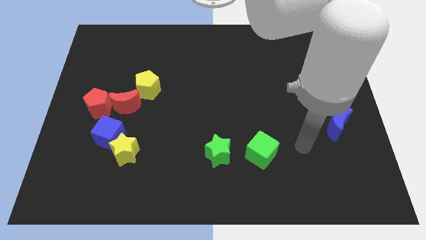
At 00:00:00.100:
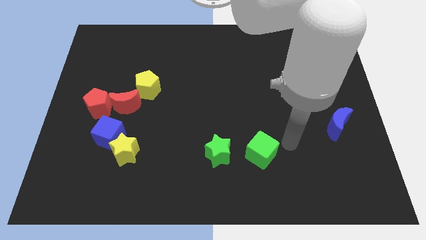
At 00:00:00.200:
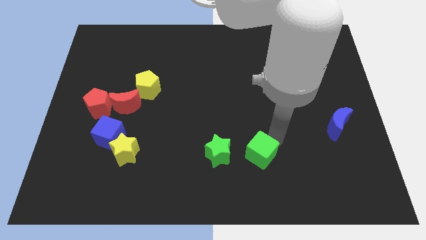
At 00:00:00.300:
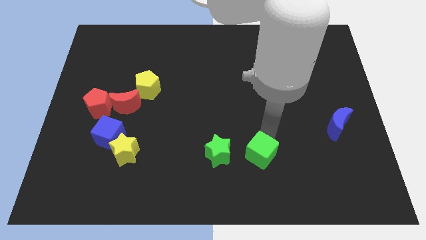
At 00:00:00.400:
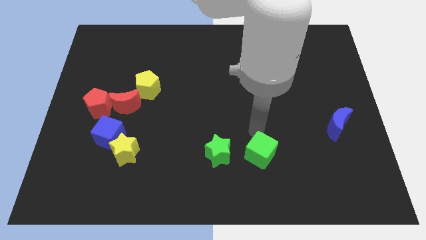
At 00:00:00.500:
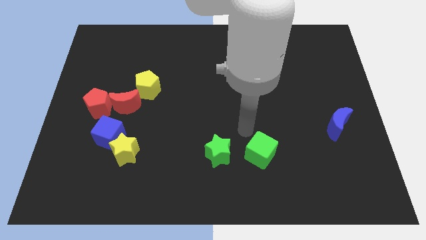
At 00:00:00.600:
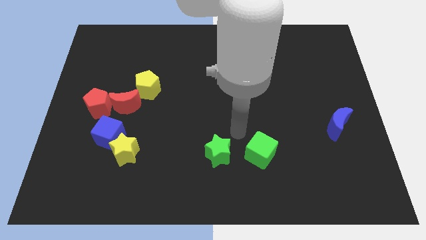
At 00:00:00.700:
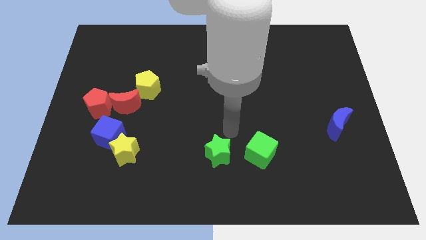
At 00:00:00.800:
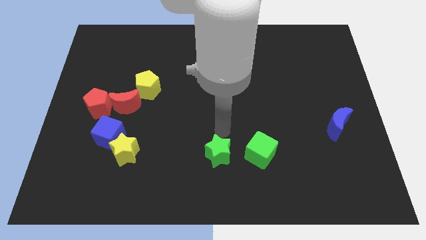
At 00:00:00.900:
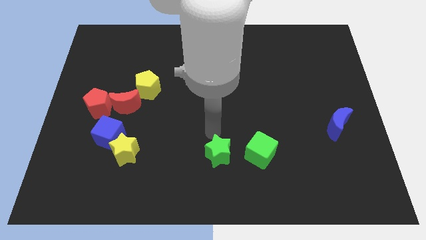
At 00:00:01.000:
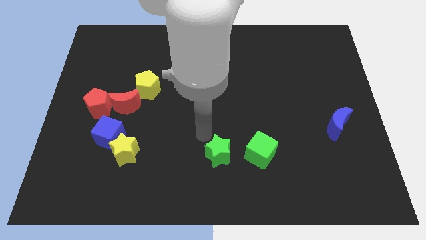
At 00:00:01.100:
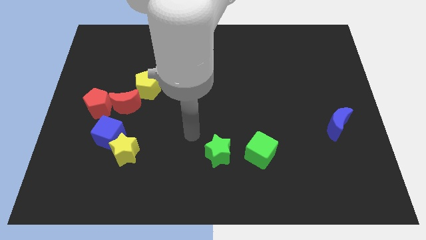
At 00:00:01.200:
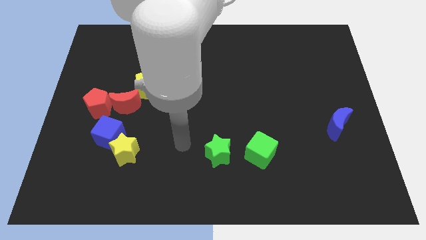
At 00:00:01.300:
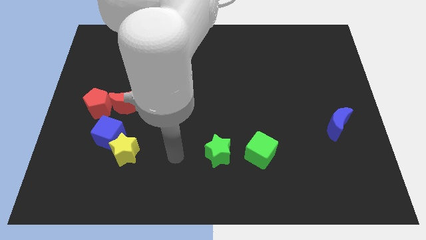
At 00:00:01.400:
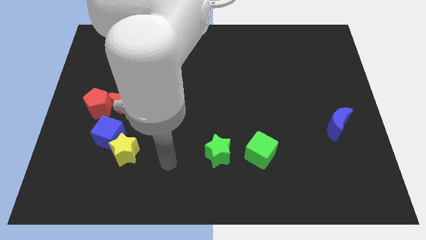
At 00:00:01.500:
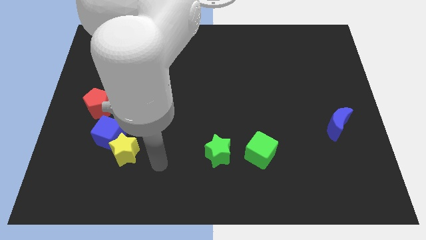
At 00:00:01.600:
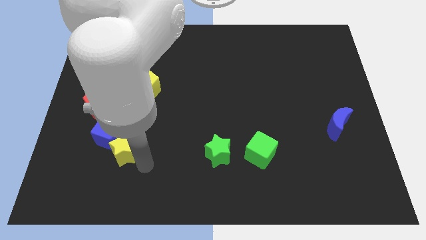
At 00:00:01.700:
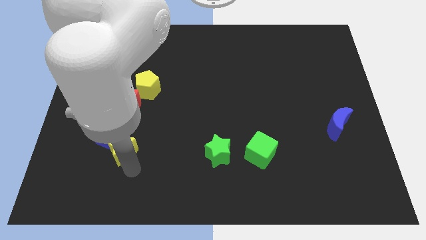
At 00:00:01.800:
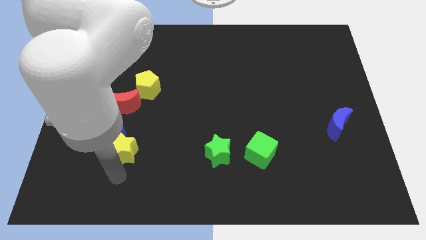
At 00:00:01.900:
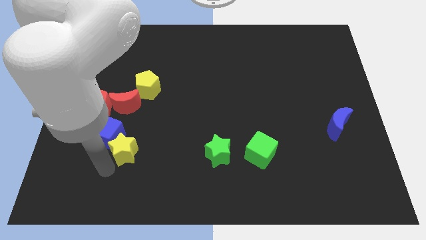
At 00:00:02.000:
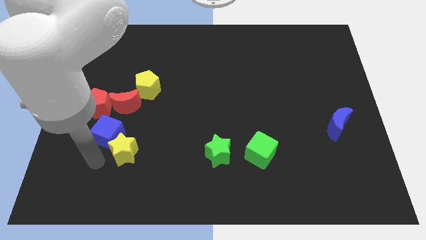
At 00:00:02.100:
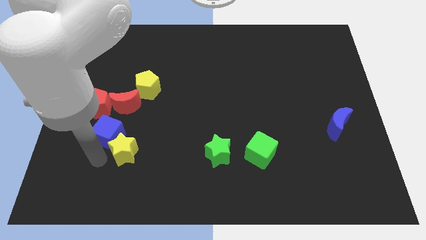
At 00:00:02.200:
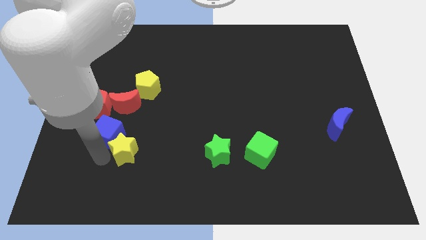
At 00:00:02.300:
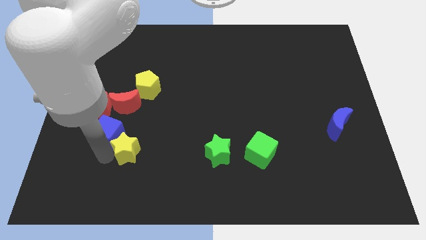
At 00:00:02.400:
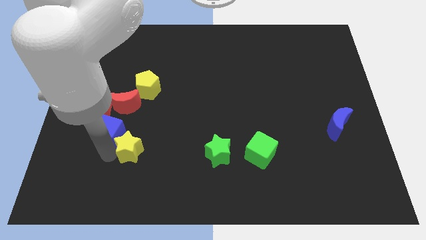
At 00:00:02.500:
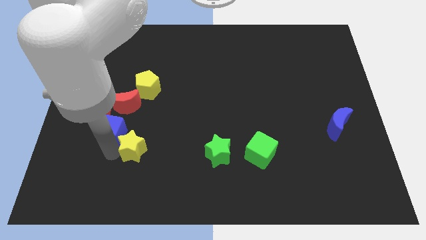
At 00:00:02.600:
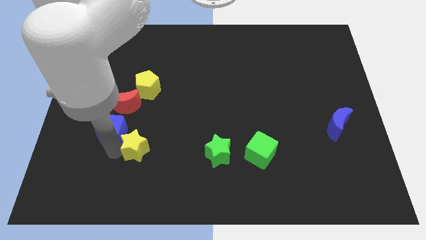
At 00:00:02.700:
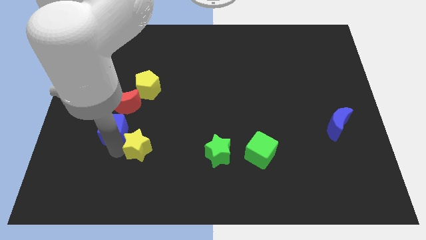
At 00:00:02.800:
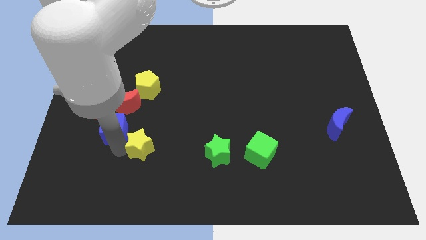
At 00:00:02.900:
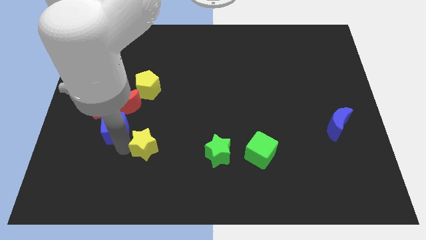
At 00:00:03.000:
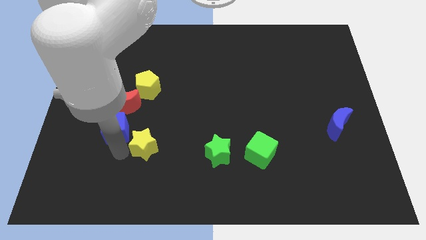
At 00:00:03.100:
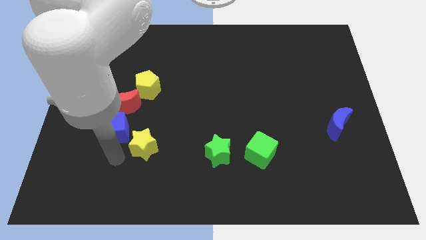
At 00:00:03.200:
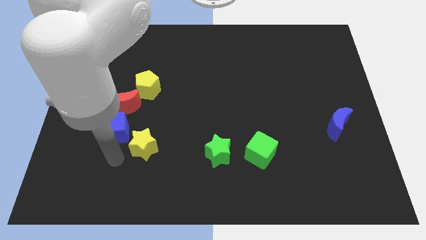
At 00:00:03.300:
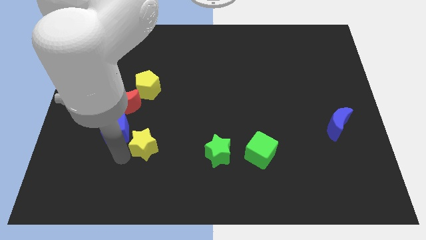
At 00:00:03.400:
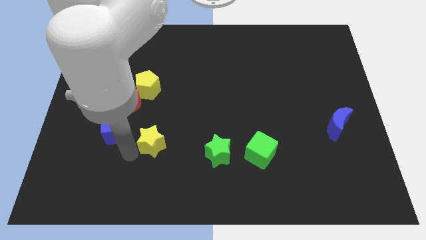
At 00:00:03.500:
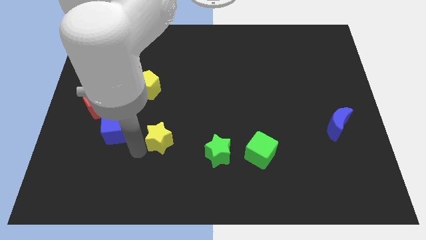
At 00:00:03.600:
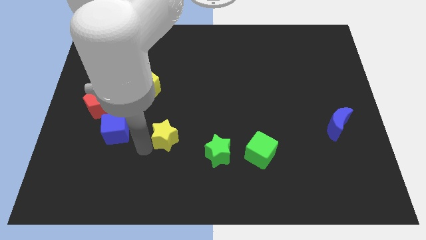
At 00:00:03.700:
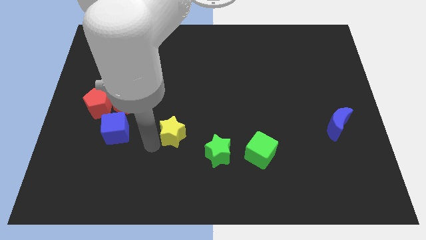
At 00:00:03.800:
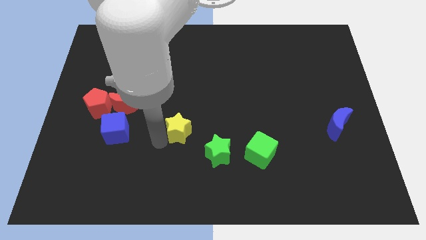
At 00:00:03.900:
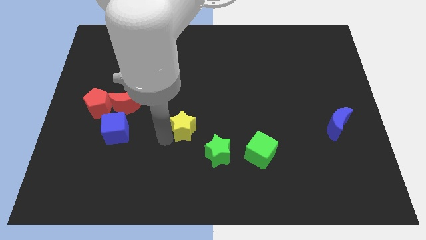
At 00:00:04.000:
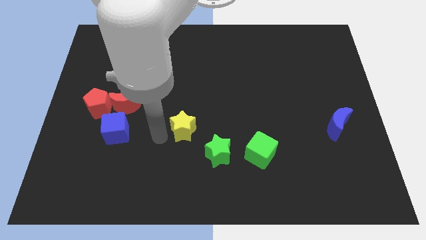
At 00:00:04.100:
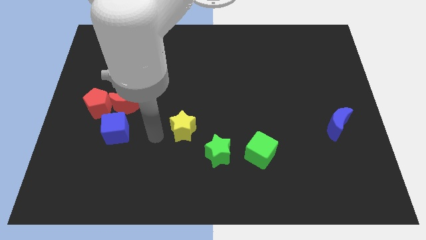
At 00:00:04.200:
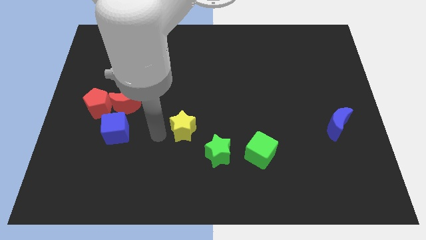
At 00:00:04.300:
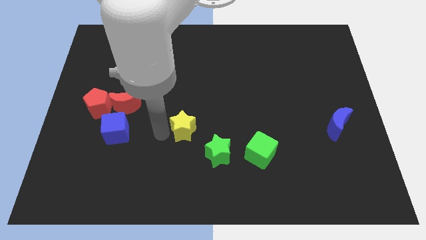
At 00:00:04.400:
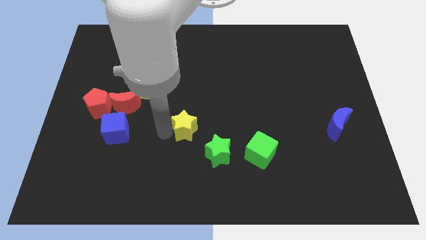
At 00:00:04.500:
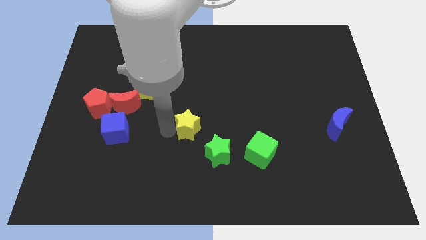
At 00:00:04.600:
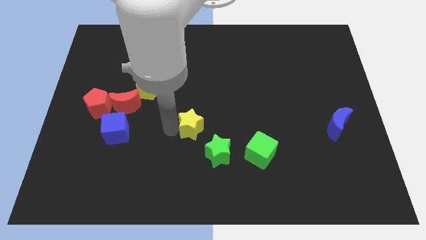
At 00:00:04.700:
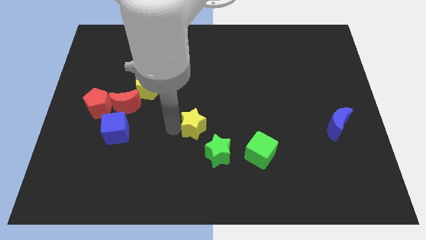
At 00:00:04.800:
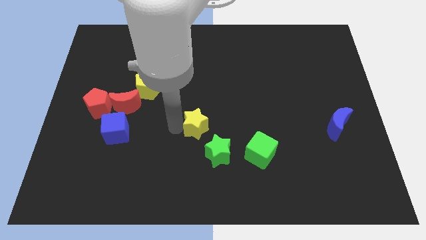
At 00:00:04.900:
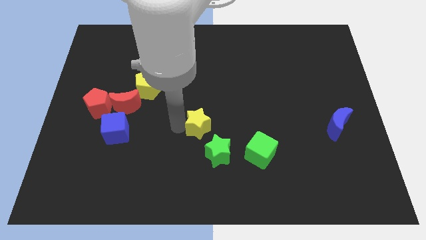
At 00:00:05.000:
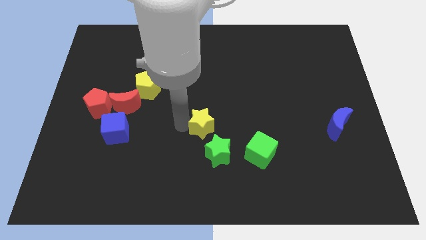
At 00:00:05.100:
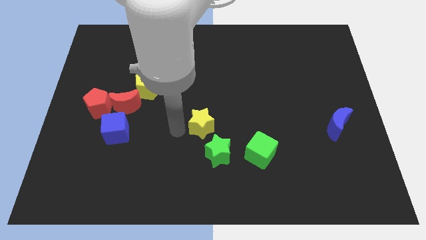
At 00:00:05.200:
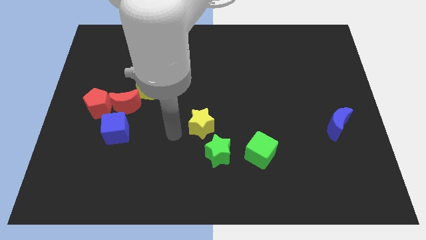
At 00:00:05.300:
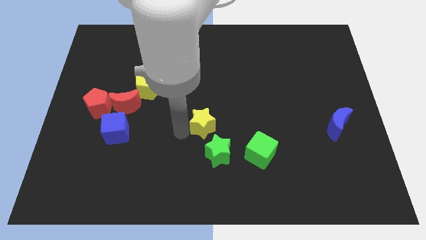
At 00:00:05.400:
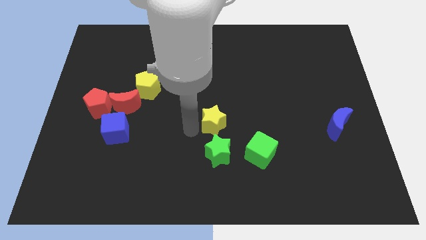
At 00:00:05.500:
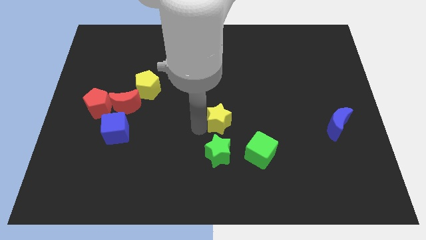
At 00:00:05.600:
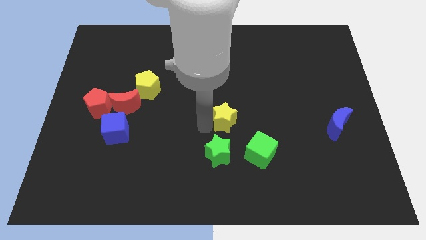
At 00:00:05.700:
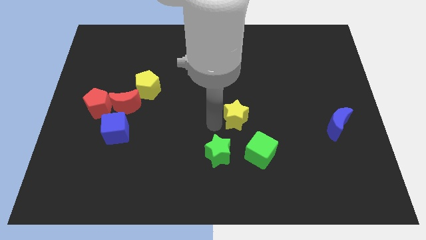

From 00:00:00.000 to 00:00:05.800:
move the yellow star to the top of the green cube

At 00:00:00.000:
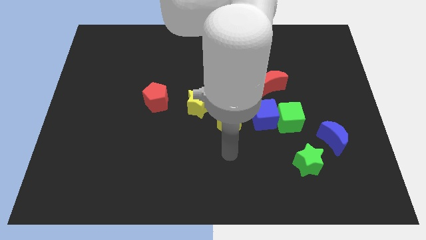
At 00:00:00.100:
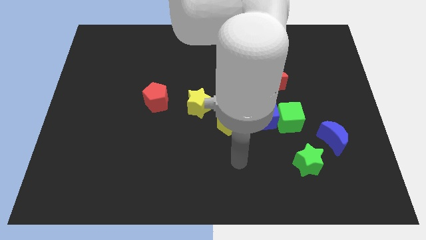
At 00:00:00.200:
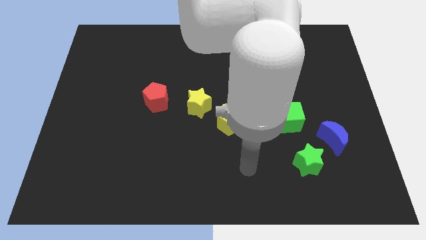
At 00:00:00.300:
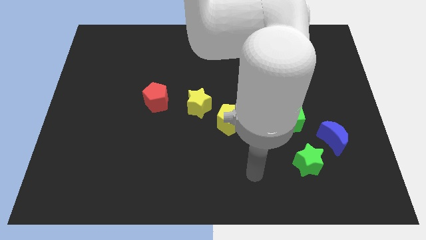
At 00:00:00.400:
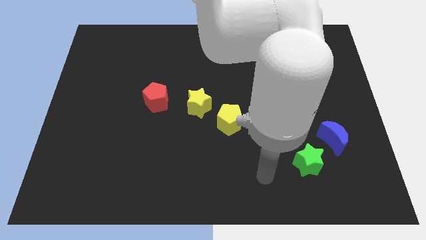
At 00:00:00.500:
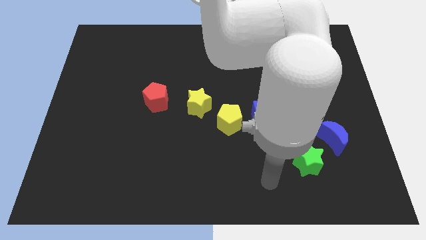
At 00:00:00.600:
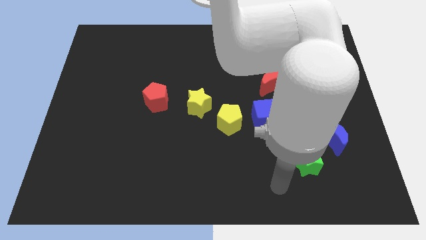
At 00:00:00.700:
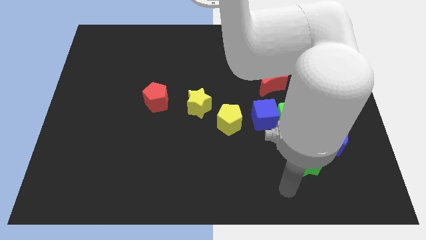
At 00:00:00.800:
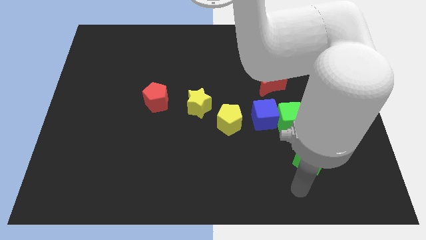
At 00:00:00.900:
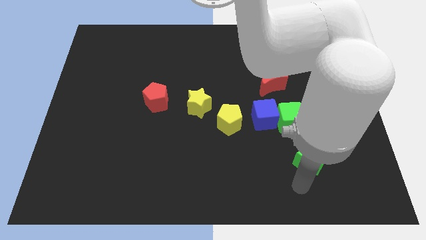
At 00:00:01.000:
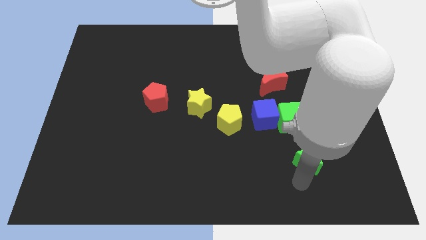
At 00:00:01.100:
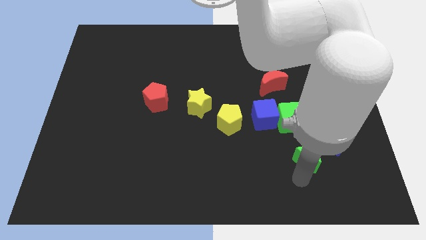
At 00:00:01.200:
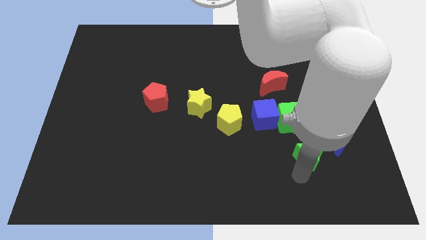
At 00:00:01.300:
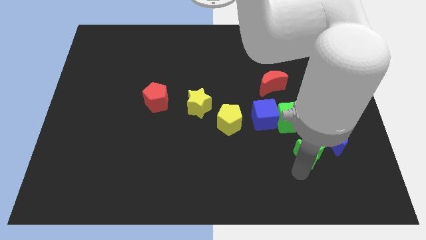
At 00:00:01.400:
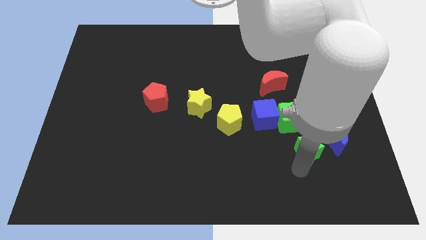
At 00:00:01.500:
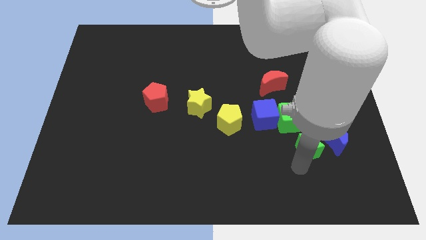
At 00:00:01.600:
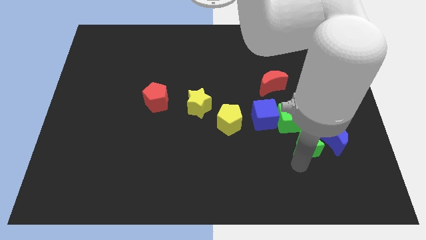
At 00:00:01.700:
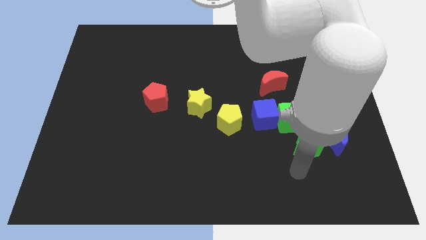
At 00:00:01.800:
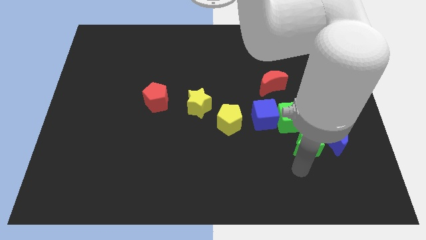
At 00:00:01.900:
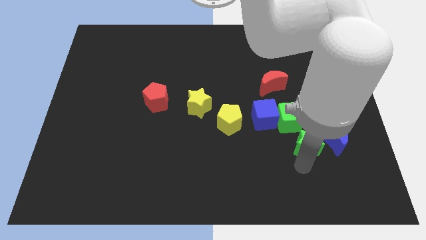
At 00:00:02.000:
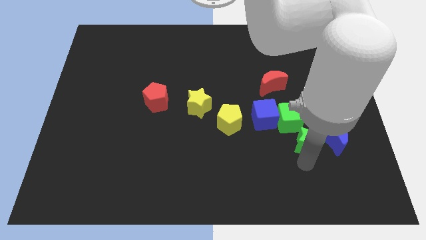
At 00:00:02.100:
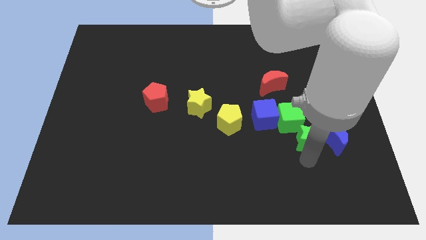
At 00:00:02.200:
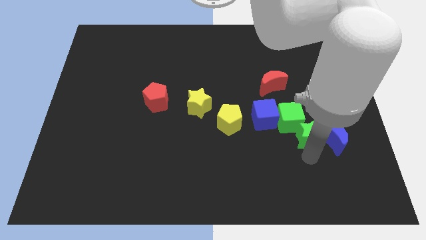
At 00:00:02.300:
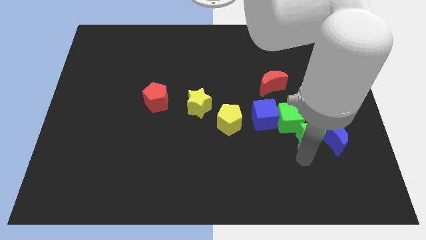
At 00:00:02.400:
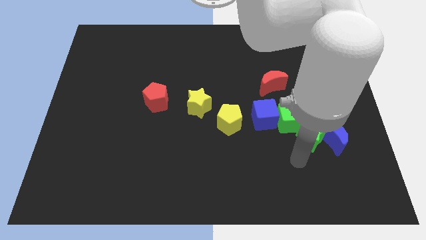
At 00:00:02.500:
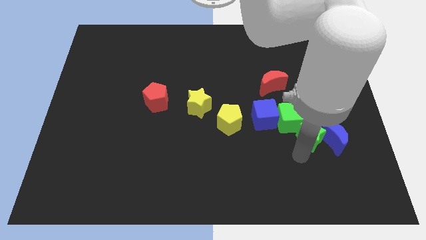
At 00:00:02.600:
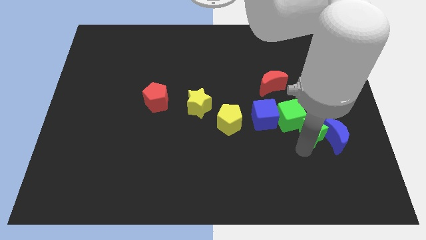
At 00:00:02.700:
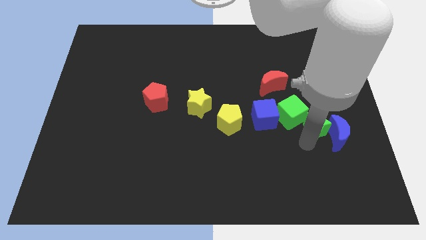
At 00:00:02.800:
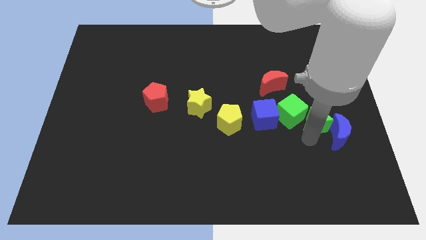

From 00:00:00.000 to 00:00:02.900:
move the green star to the top side of the blue moon
